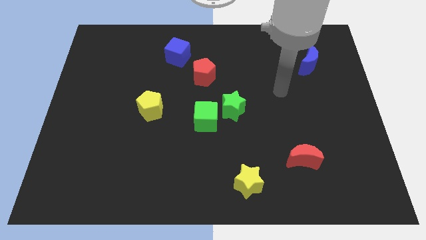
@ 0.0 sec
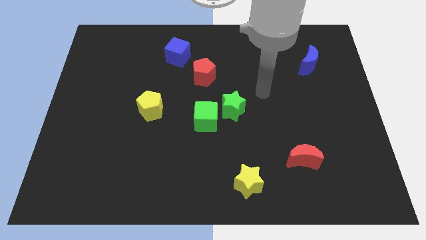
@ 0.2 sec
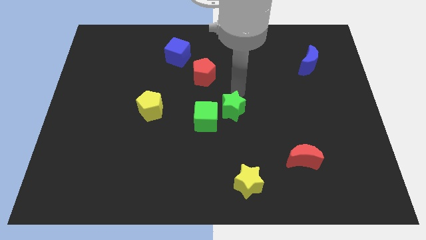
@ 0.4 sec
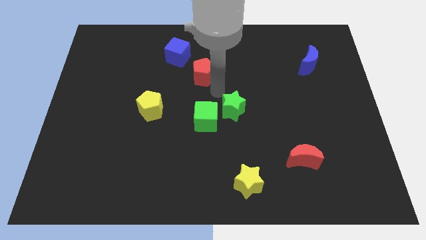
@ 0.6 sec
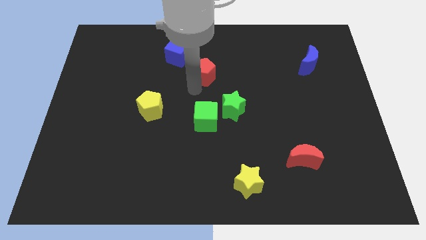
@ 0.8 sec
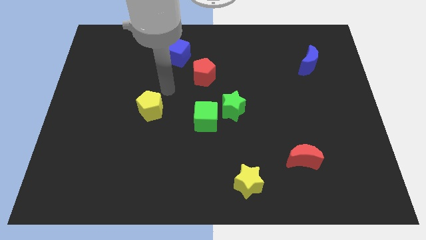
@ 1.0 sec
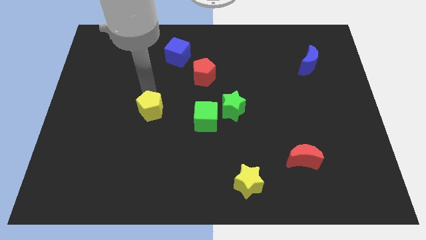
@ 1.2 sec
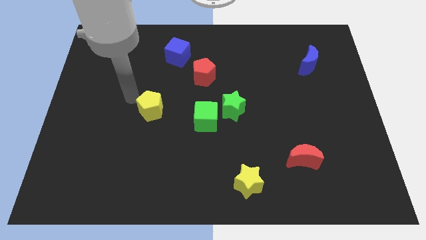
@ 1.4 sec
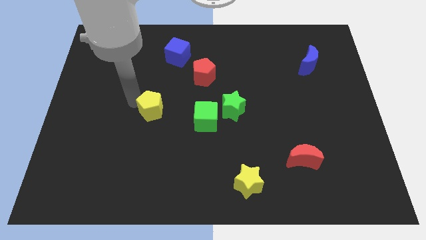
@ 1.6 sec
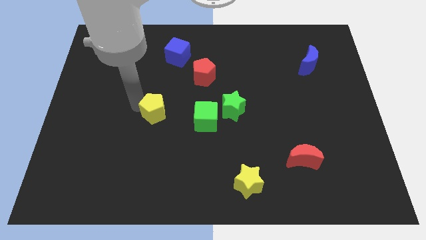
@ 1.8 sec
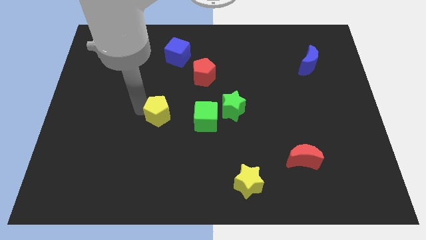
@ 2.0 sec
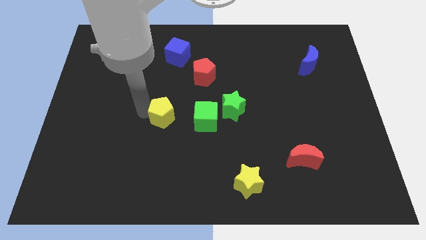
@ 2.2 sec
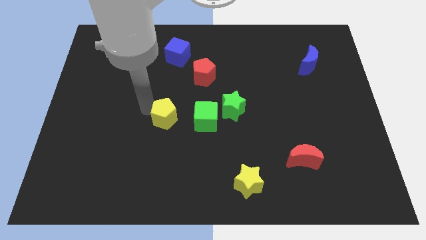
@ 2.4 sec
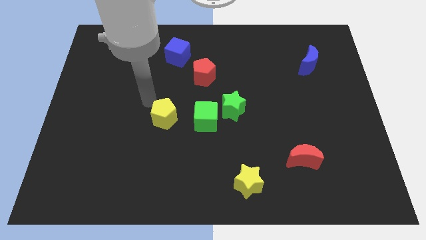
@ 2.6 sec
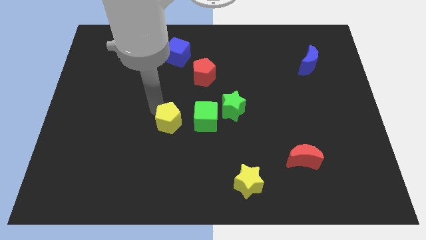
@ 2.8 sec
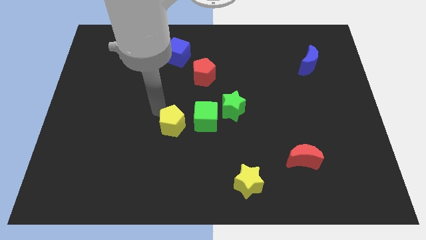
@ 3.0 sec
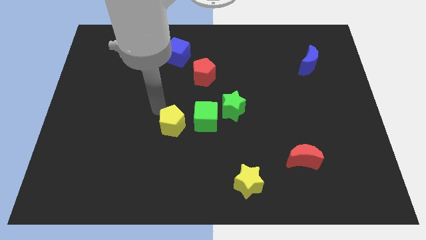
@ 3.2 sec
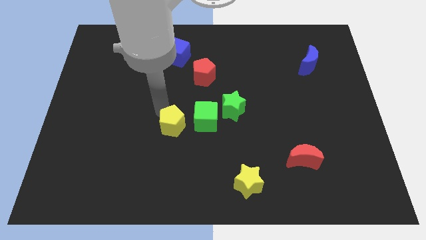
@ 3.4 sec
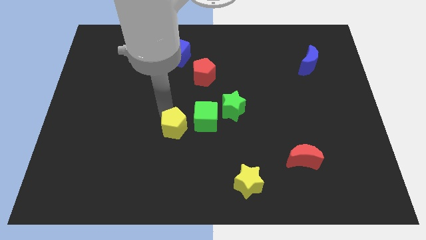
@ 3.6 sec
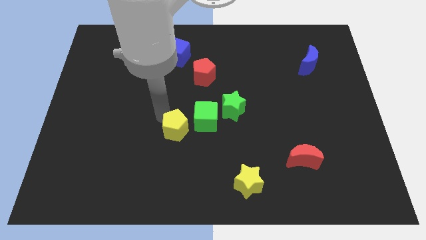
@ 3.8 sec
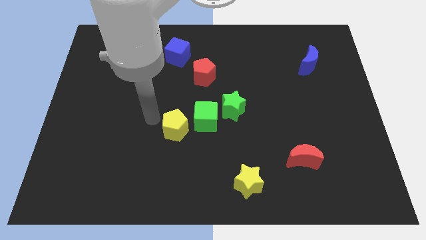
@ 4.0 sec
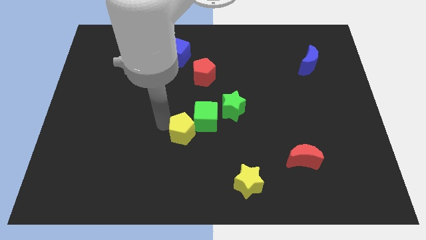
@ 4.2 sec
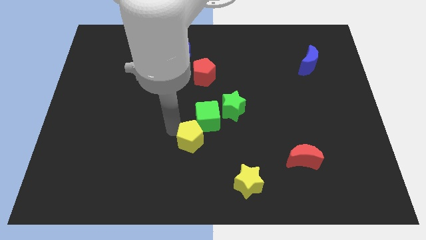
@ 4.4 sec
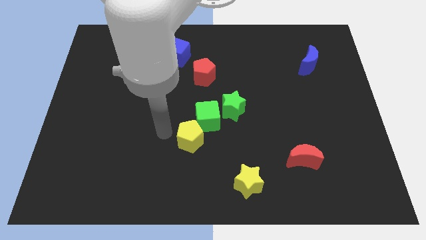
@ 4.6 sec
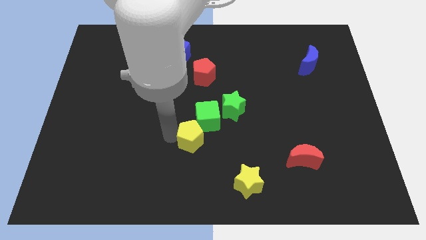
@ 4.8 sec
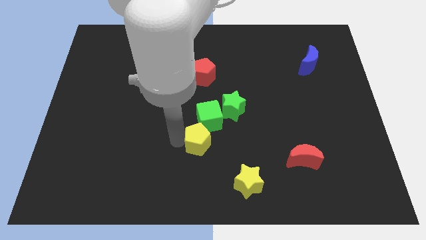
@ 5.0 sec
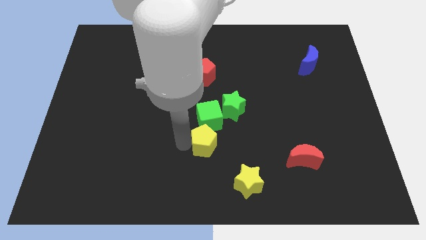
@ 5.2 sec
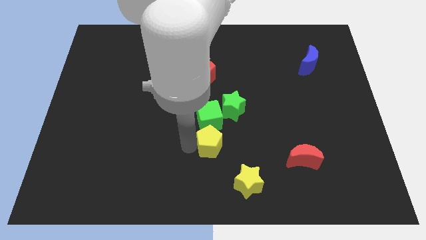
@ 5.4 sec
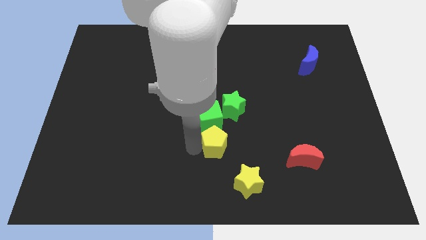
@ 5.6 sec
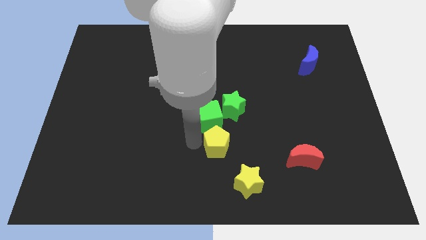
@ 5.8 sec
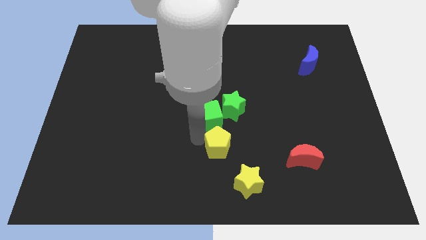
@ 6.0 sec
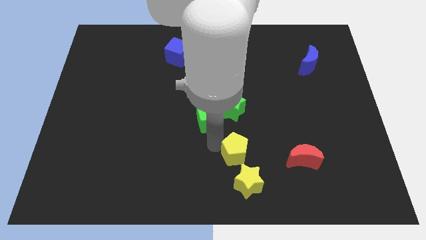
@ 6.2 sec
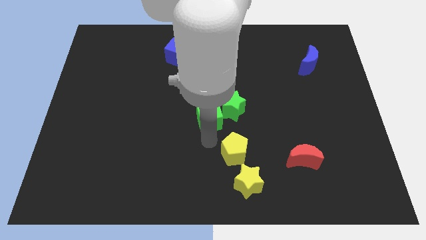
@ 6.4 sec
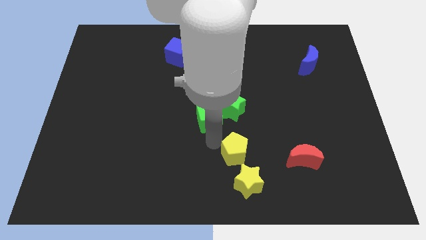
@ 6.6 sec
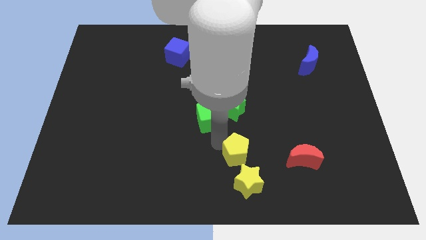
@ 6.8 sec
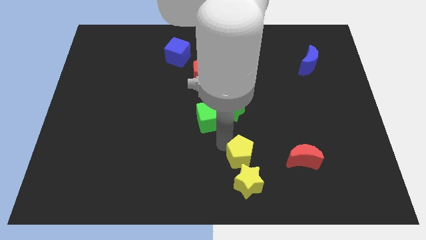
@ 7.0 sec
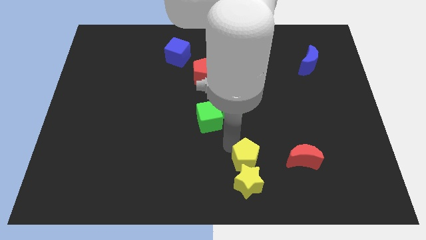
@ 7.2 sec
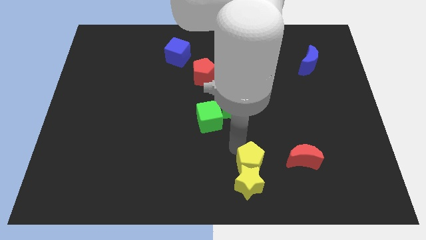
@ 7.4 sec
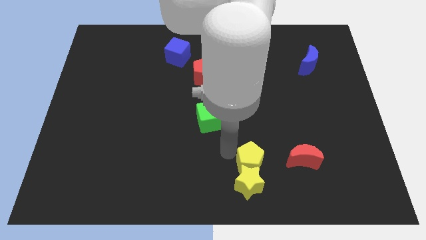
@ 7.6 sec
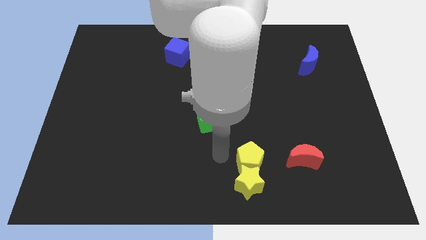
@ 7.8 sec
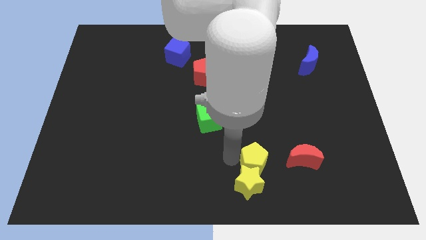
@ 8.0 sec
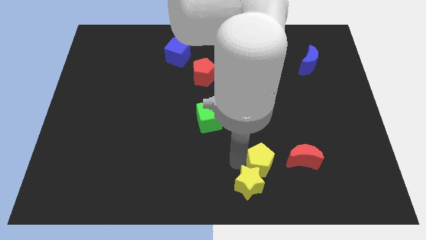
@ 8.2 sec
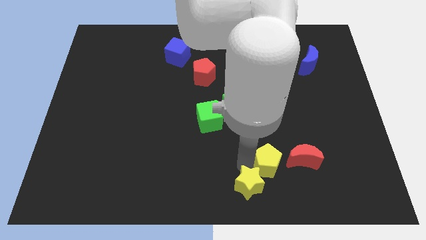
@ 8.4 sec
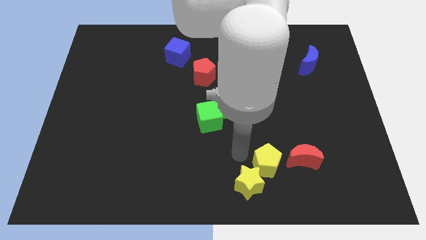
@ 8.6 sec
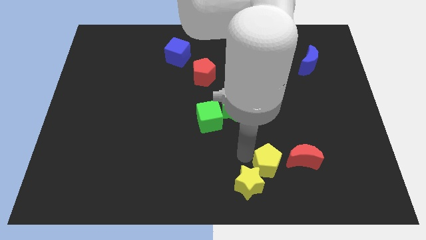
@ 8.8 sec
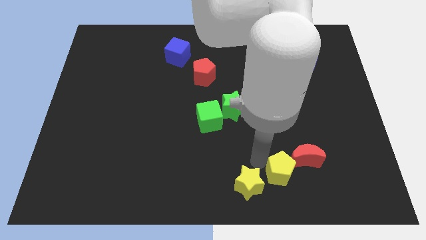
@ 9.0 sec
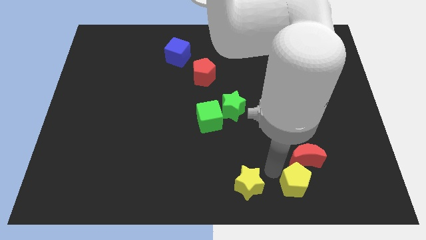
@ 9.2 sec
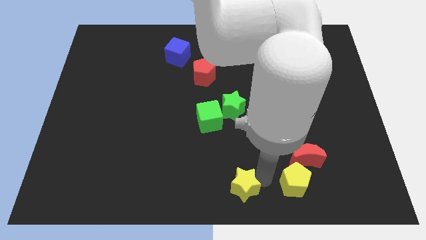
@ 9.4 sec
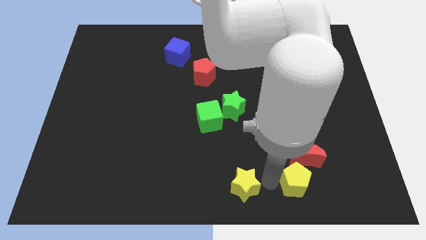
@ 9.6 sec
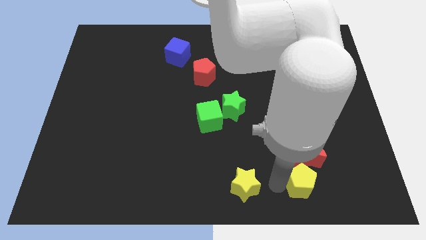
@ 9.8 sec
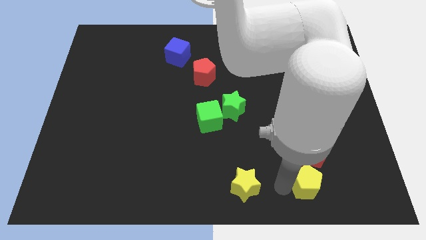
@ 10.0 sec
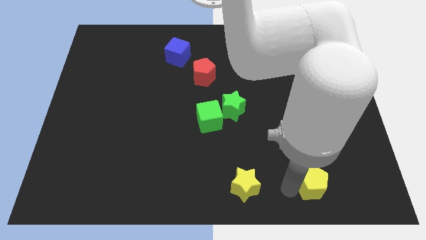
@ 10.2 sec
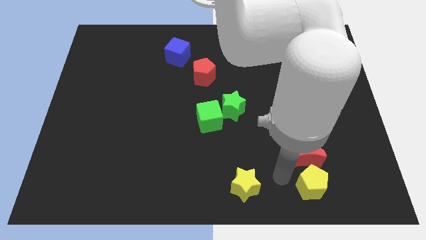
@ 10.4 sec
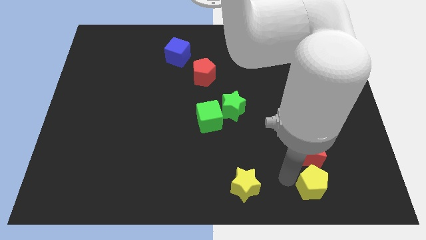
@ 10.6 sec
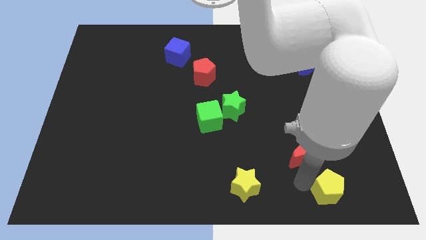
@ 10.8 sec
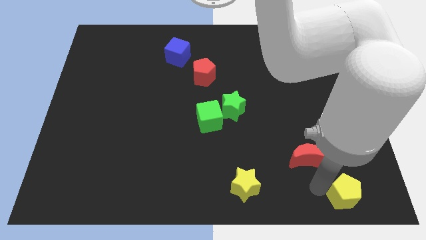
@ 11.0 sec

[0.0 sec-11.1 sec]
put the yellow pentagon to the bottom right

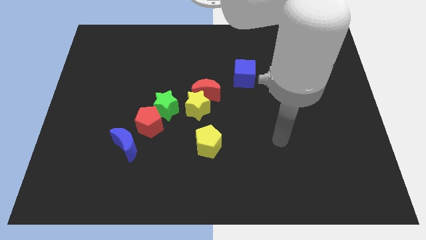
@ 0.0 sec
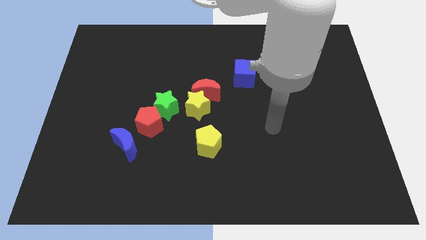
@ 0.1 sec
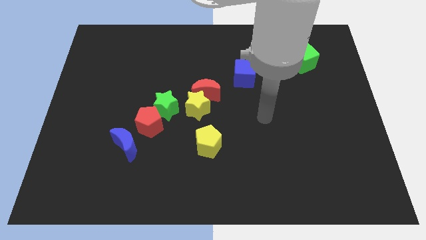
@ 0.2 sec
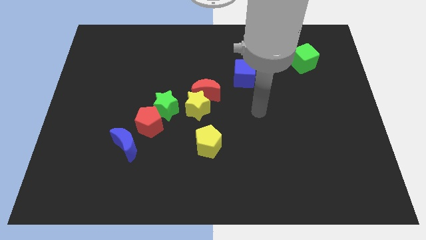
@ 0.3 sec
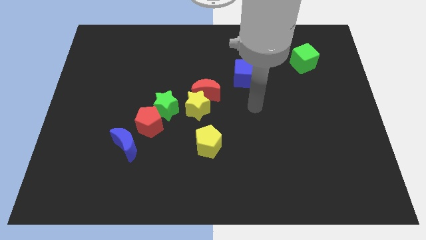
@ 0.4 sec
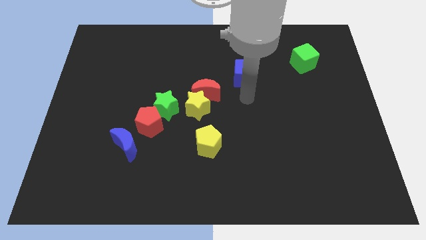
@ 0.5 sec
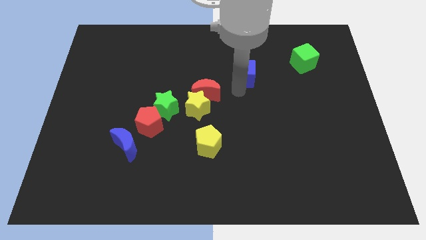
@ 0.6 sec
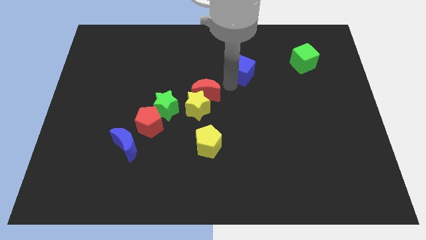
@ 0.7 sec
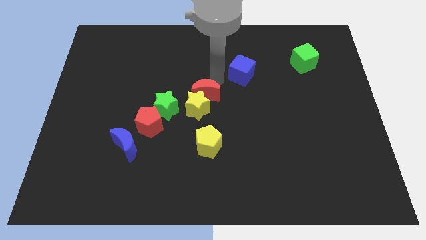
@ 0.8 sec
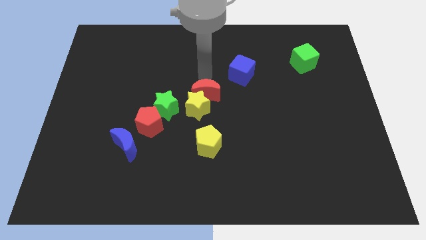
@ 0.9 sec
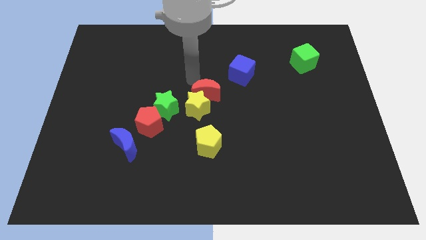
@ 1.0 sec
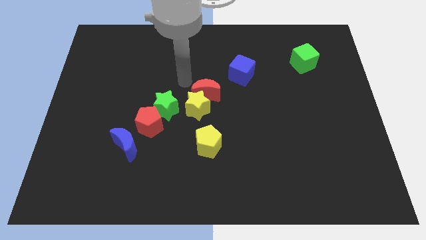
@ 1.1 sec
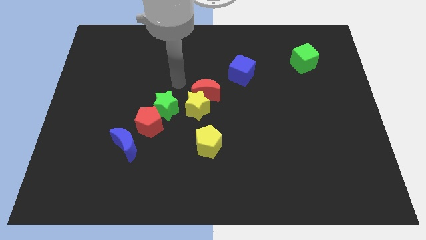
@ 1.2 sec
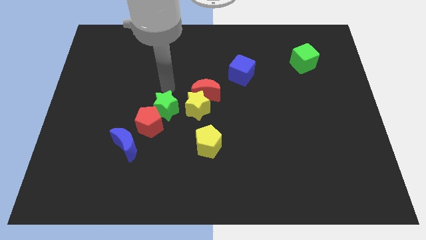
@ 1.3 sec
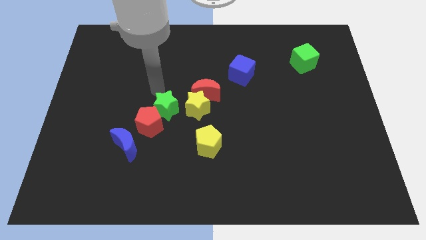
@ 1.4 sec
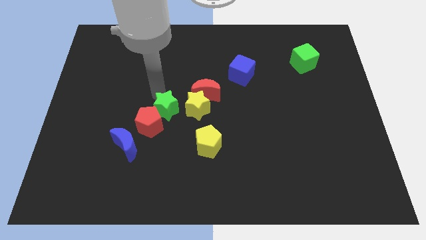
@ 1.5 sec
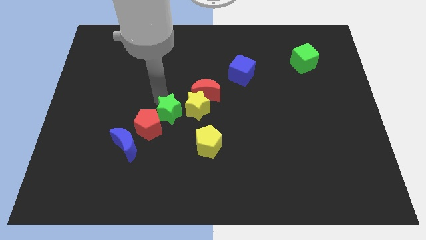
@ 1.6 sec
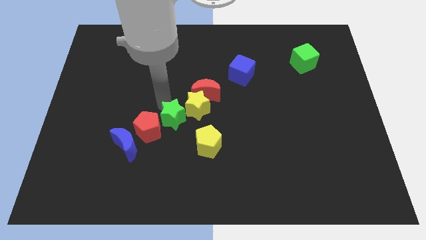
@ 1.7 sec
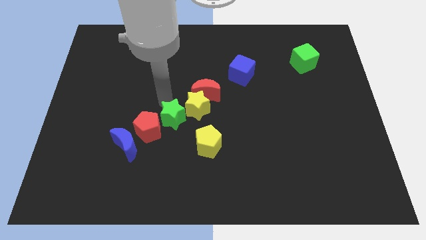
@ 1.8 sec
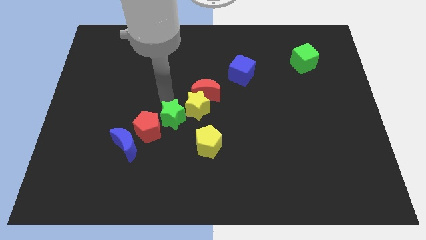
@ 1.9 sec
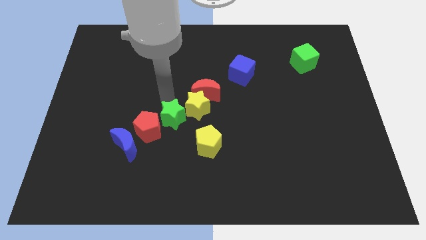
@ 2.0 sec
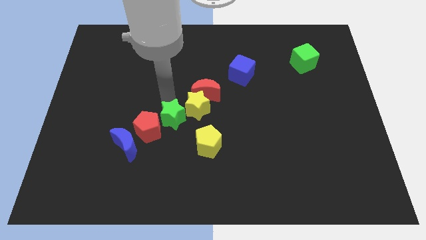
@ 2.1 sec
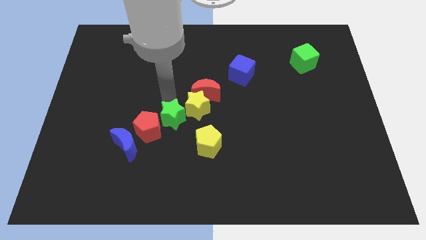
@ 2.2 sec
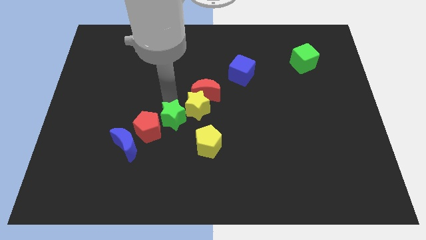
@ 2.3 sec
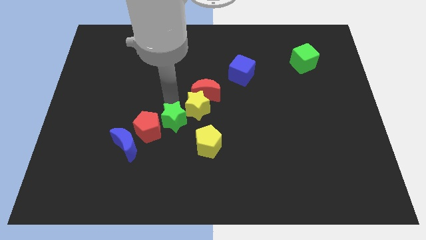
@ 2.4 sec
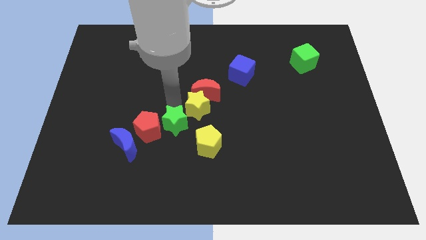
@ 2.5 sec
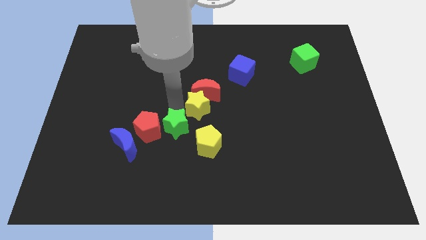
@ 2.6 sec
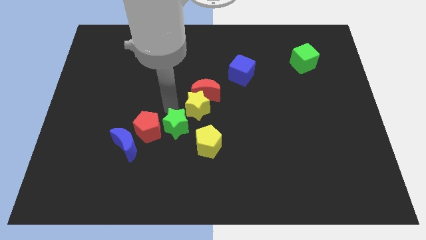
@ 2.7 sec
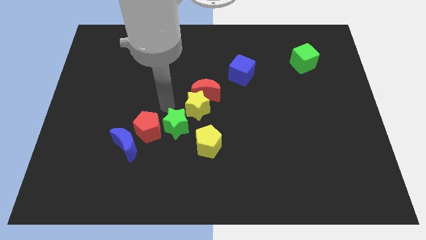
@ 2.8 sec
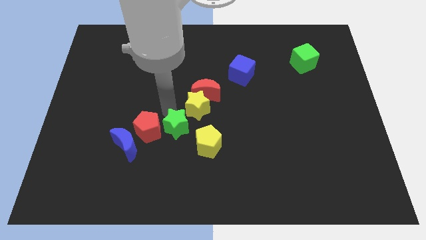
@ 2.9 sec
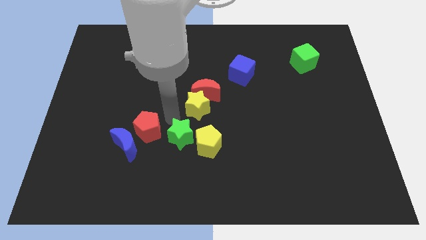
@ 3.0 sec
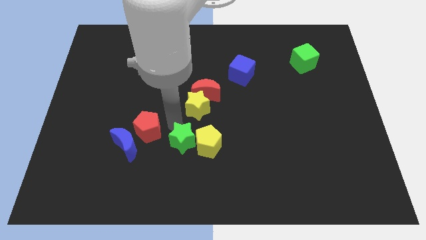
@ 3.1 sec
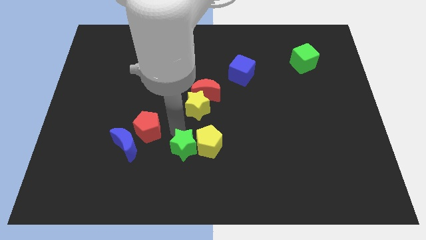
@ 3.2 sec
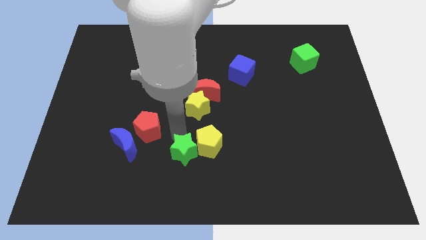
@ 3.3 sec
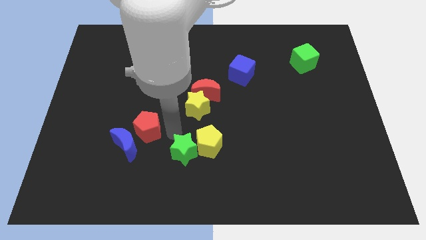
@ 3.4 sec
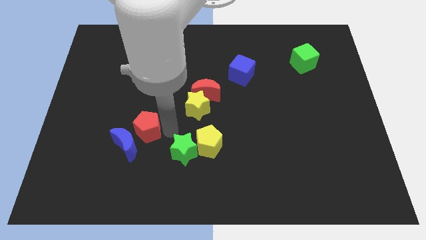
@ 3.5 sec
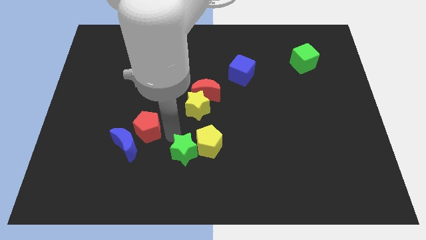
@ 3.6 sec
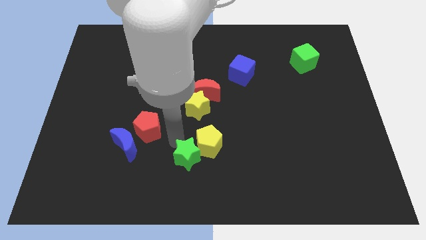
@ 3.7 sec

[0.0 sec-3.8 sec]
put the green star to the bottom
